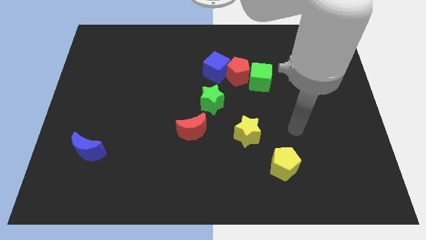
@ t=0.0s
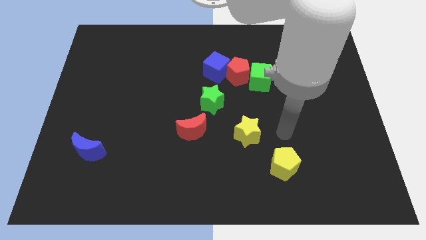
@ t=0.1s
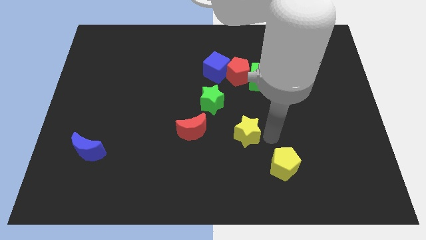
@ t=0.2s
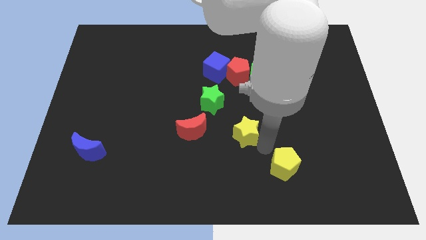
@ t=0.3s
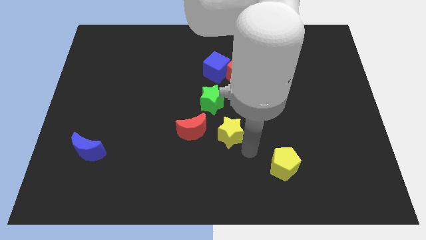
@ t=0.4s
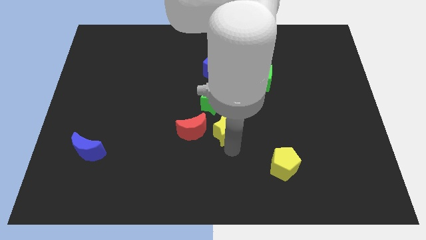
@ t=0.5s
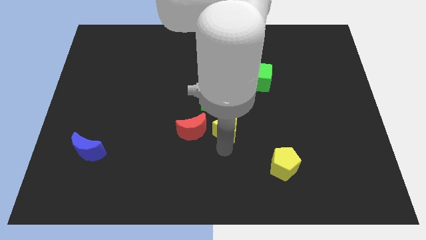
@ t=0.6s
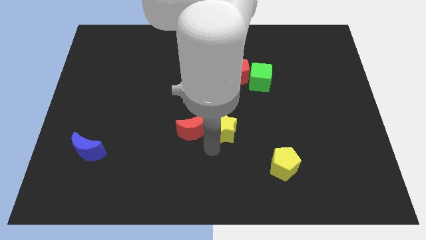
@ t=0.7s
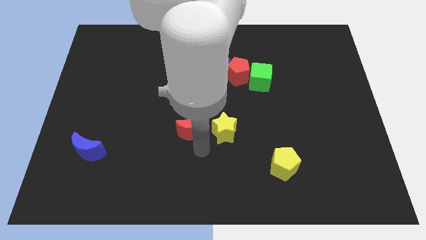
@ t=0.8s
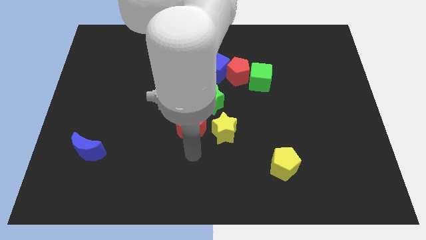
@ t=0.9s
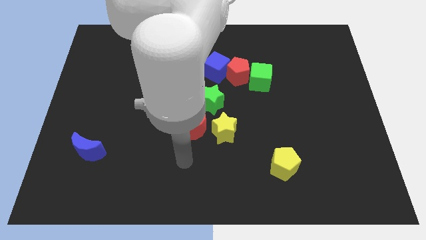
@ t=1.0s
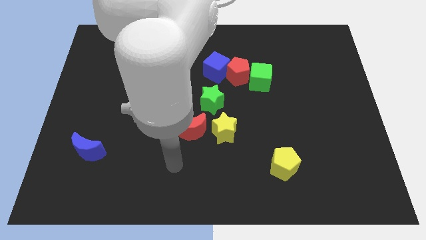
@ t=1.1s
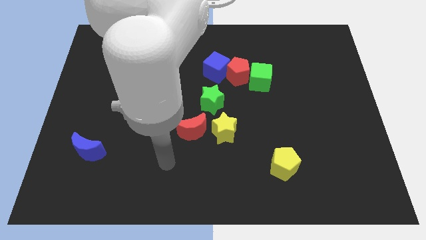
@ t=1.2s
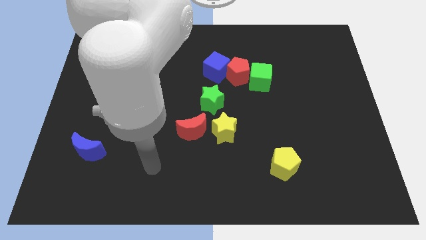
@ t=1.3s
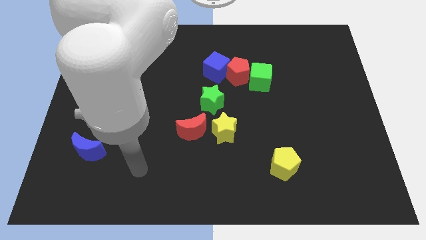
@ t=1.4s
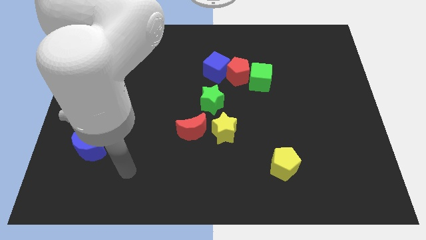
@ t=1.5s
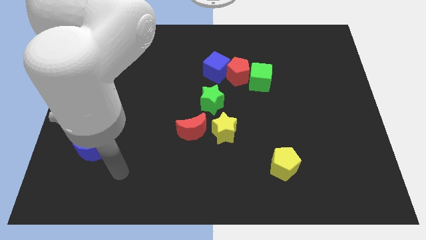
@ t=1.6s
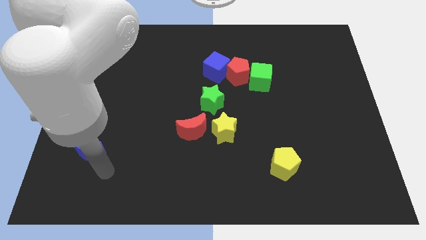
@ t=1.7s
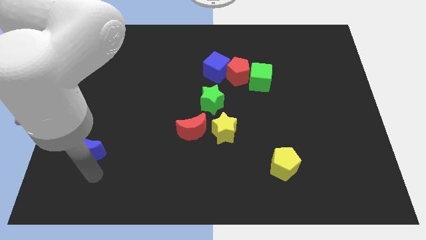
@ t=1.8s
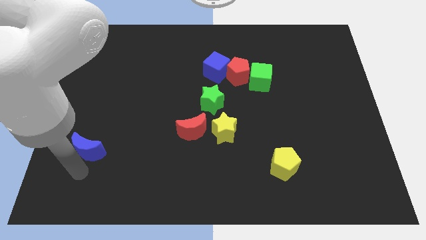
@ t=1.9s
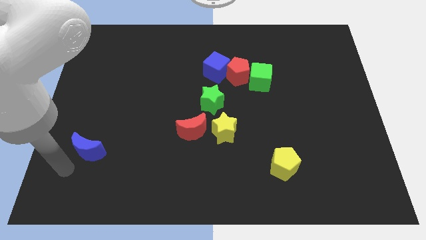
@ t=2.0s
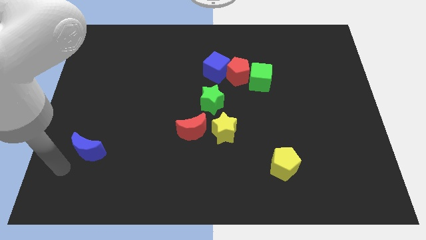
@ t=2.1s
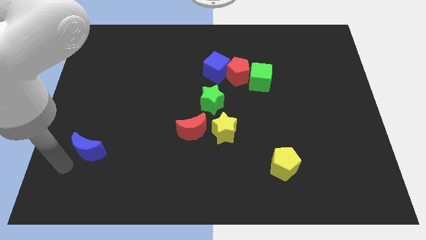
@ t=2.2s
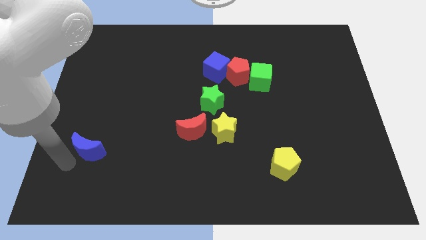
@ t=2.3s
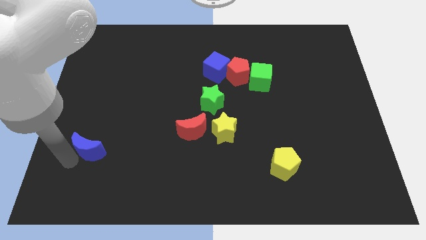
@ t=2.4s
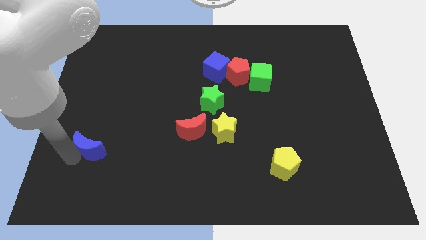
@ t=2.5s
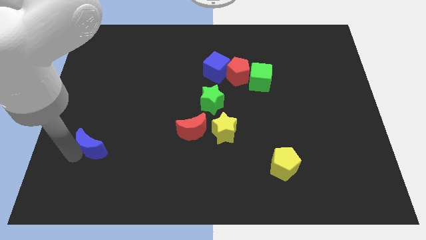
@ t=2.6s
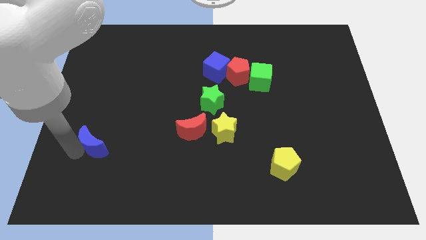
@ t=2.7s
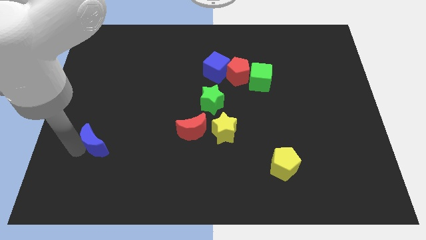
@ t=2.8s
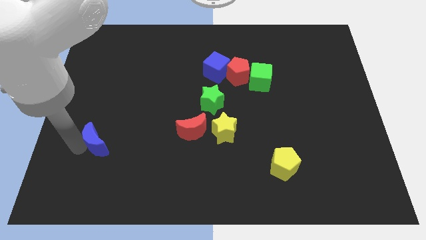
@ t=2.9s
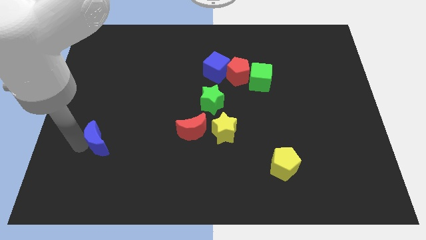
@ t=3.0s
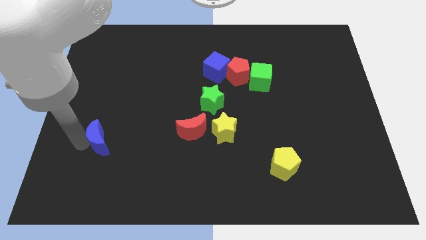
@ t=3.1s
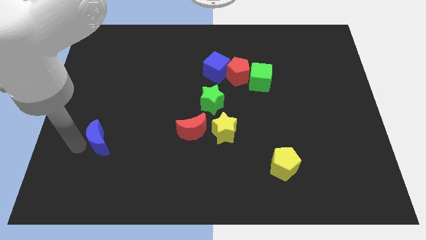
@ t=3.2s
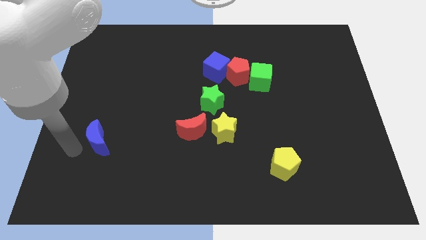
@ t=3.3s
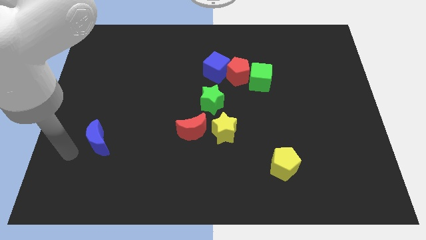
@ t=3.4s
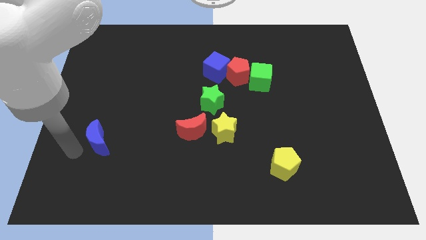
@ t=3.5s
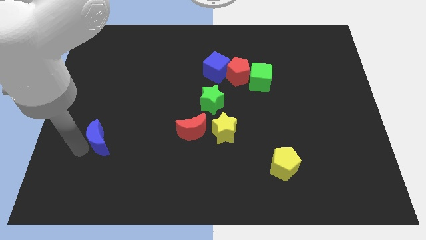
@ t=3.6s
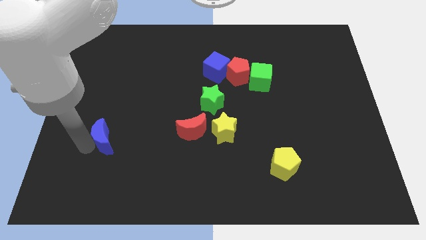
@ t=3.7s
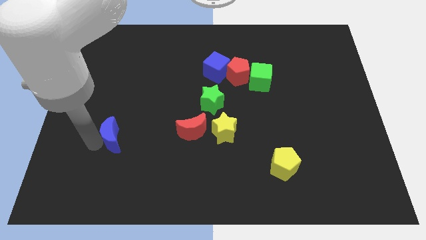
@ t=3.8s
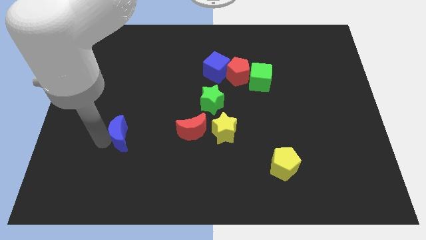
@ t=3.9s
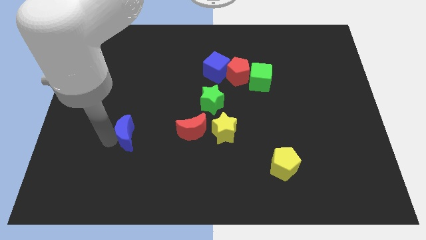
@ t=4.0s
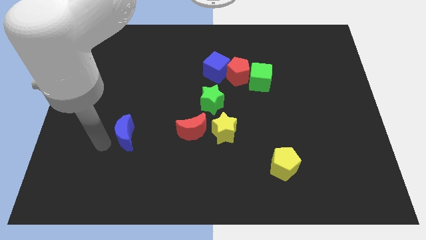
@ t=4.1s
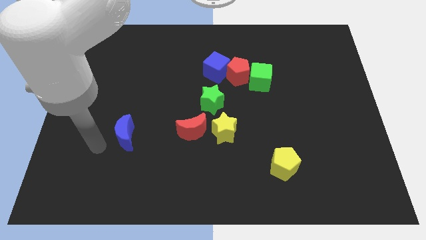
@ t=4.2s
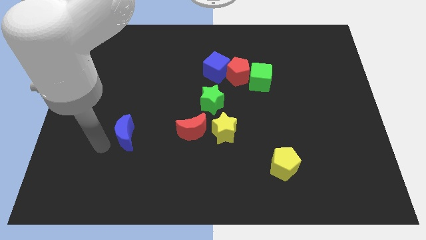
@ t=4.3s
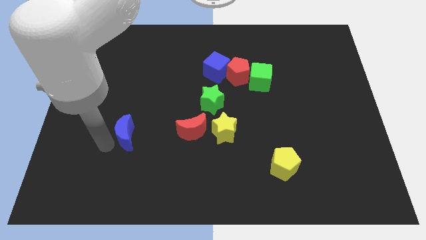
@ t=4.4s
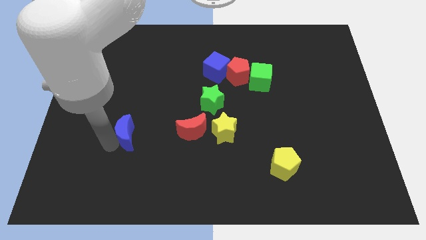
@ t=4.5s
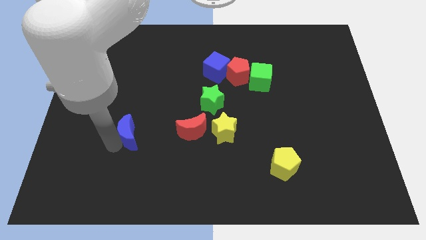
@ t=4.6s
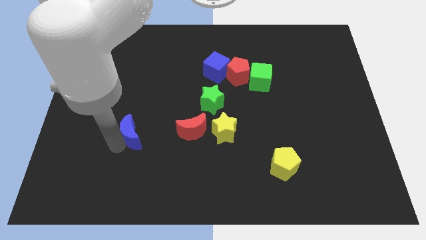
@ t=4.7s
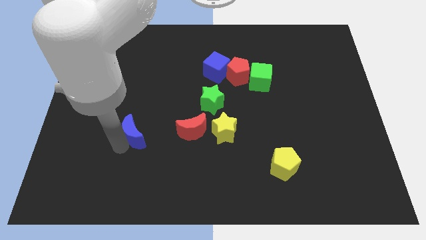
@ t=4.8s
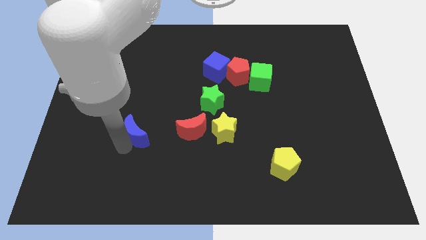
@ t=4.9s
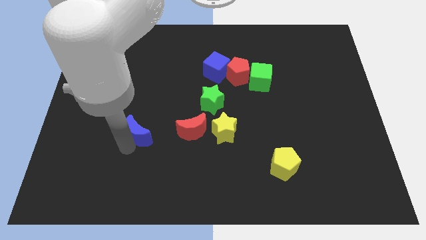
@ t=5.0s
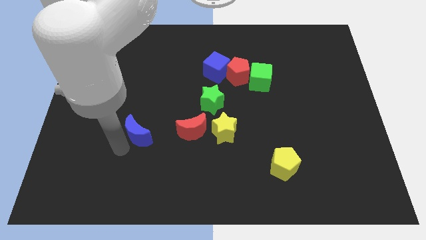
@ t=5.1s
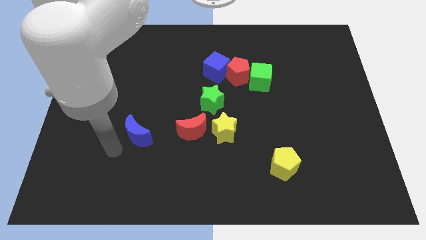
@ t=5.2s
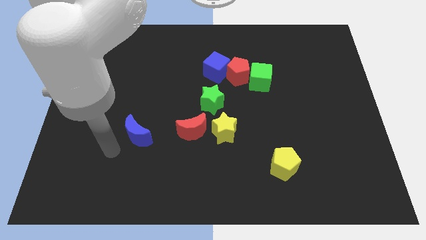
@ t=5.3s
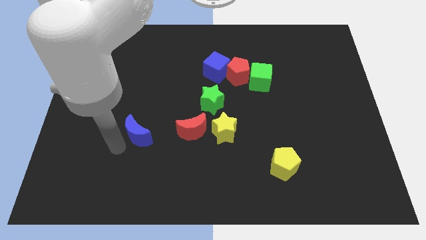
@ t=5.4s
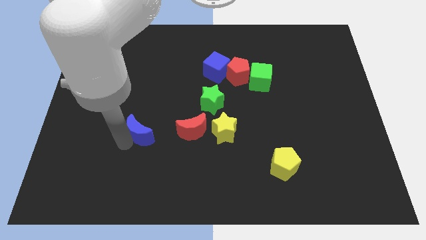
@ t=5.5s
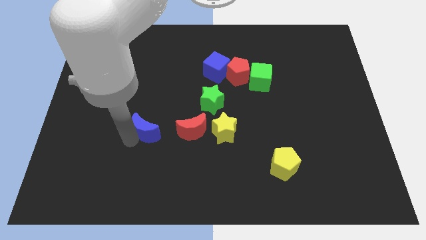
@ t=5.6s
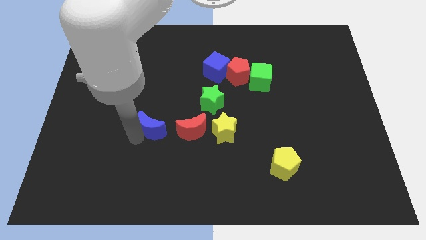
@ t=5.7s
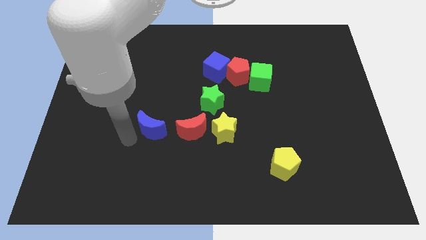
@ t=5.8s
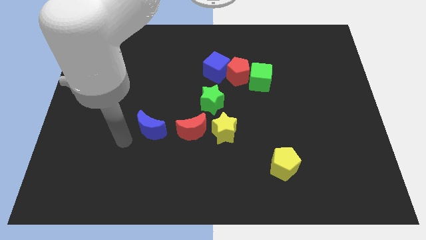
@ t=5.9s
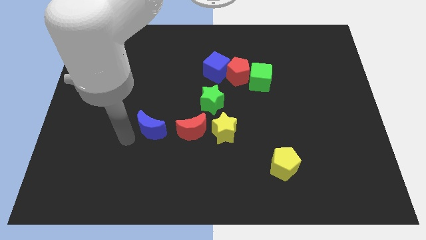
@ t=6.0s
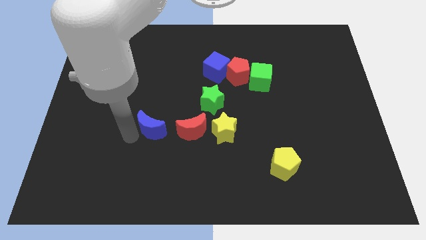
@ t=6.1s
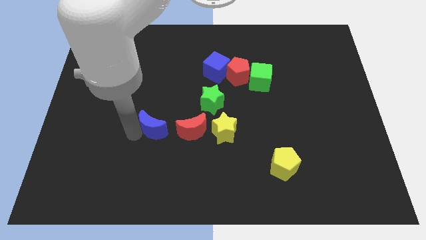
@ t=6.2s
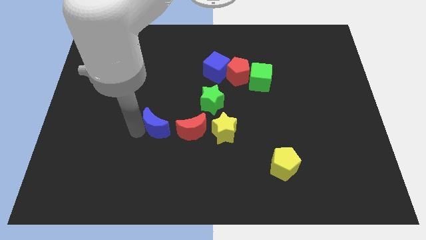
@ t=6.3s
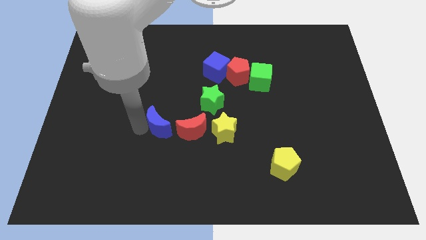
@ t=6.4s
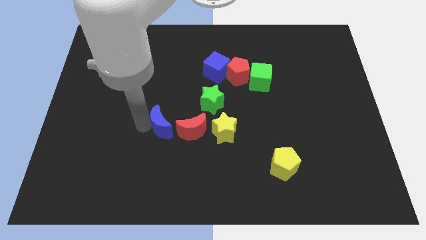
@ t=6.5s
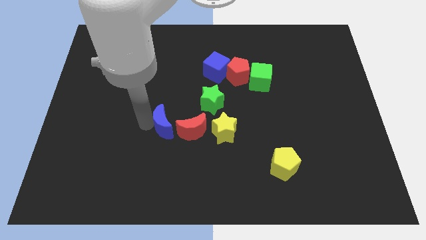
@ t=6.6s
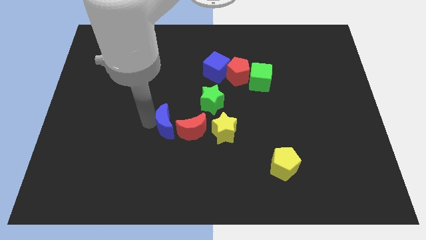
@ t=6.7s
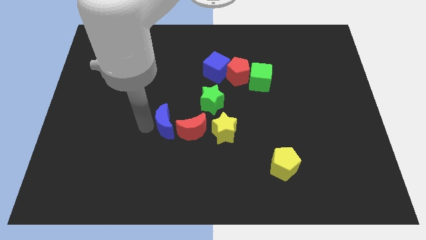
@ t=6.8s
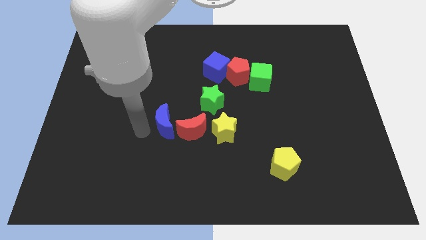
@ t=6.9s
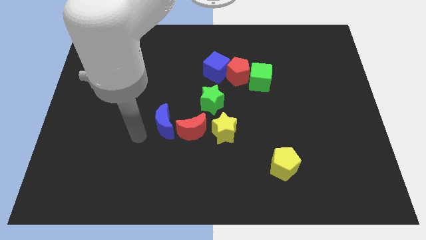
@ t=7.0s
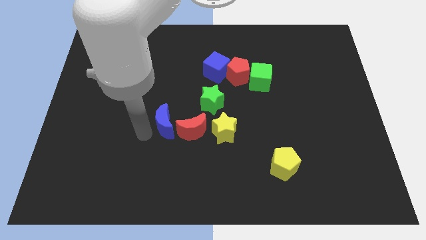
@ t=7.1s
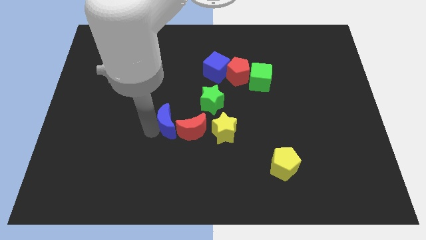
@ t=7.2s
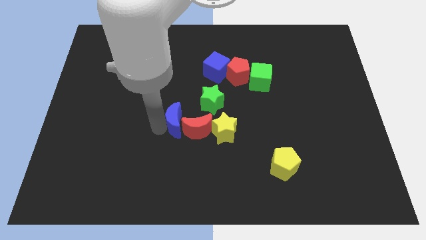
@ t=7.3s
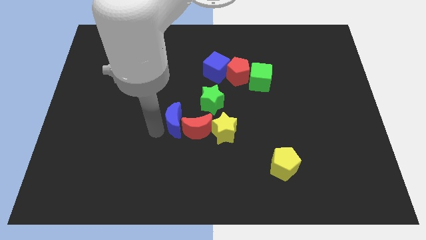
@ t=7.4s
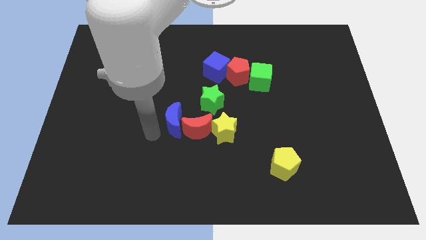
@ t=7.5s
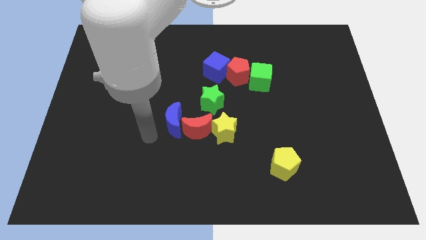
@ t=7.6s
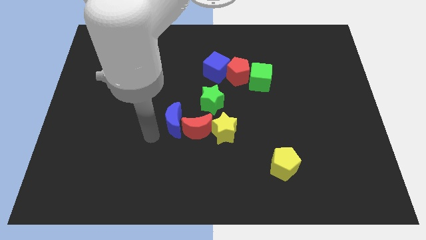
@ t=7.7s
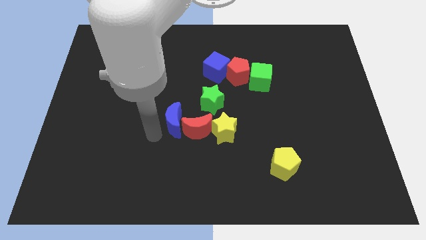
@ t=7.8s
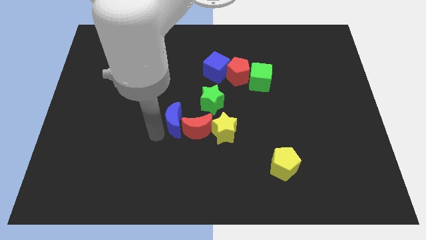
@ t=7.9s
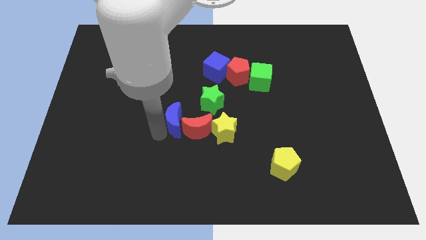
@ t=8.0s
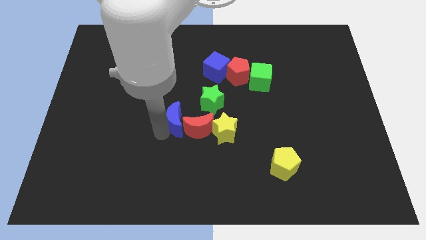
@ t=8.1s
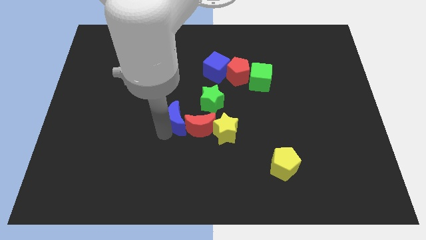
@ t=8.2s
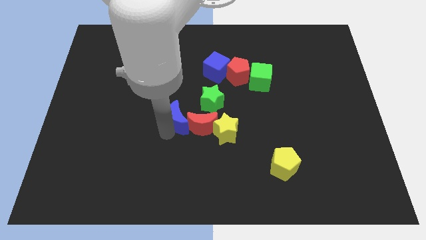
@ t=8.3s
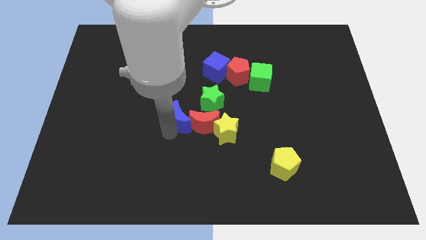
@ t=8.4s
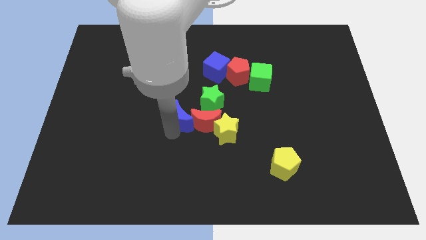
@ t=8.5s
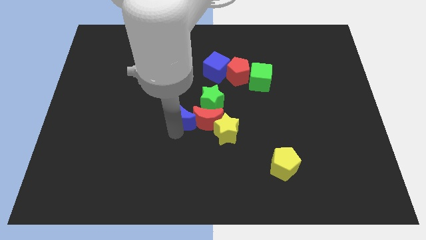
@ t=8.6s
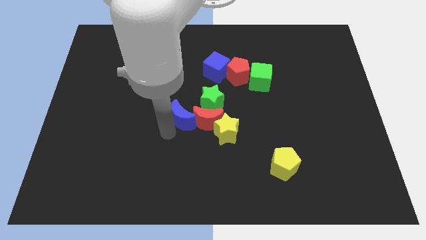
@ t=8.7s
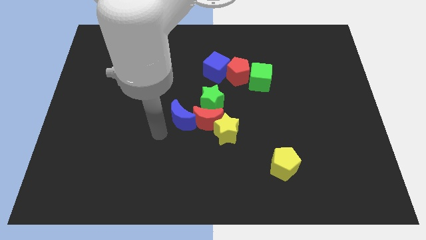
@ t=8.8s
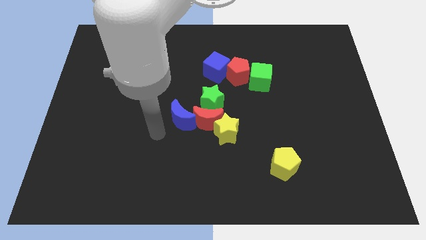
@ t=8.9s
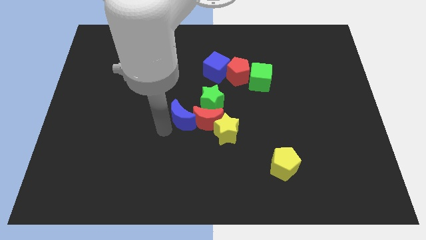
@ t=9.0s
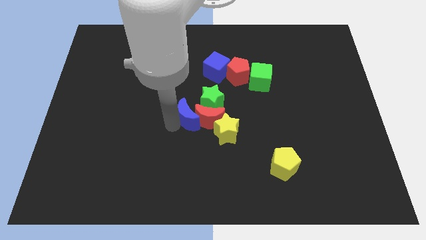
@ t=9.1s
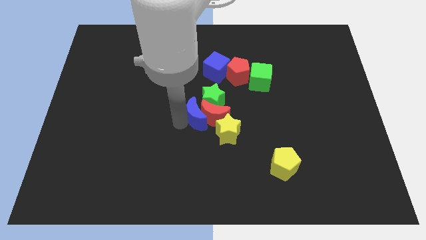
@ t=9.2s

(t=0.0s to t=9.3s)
push the blue moon towards the green star
